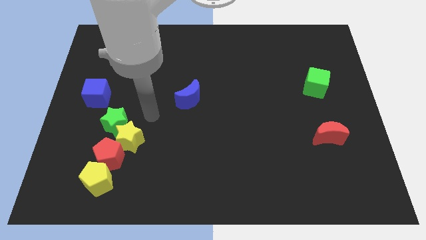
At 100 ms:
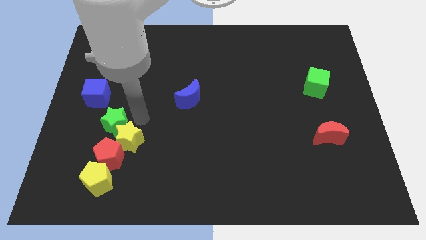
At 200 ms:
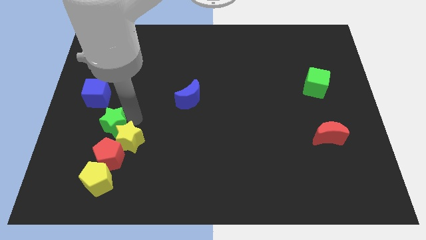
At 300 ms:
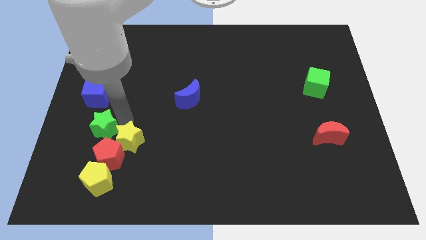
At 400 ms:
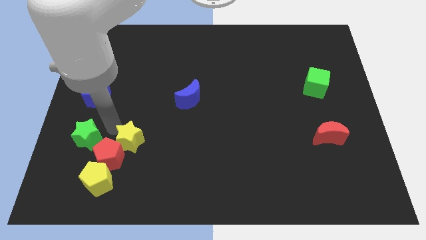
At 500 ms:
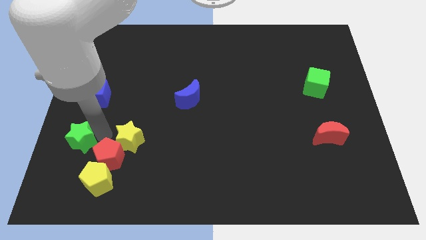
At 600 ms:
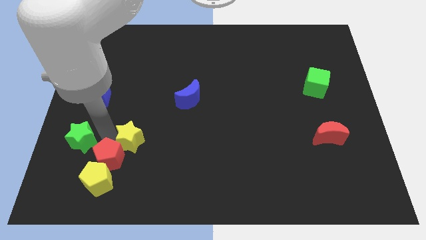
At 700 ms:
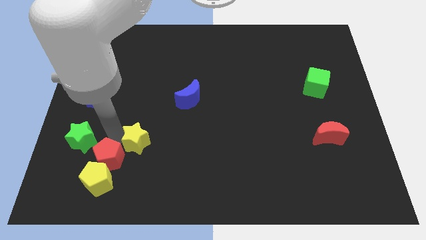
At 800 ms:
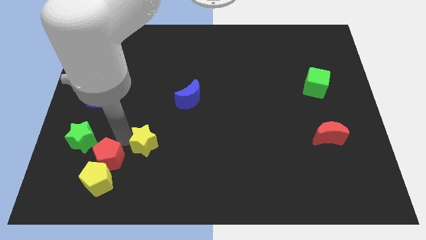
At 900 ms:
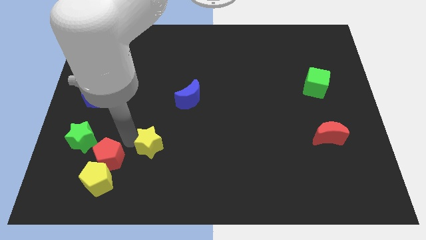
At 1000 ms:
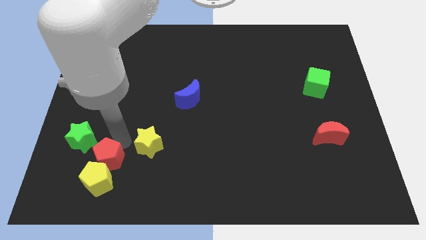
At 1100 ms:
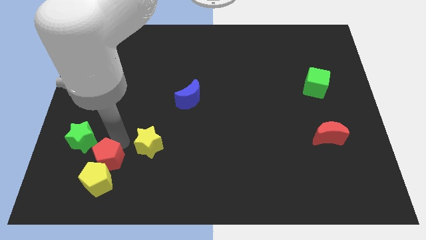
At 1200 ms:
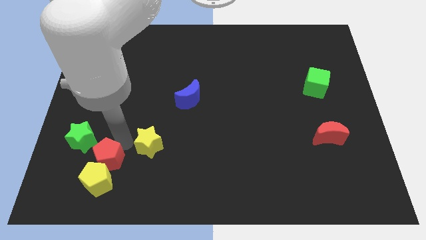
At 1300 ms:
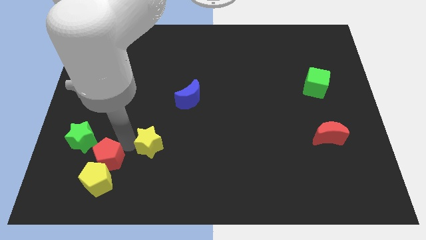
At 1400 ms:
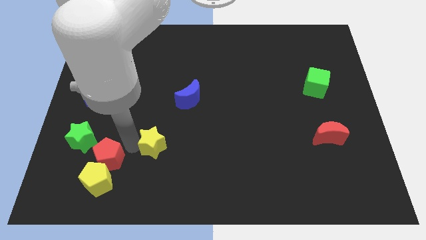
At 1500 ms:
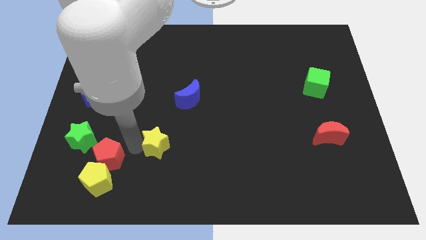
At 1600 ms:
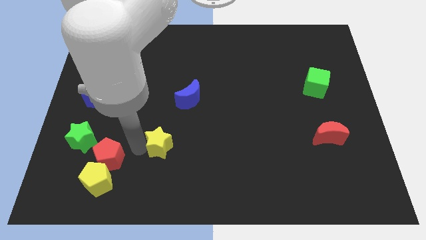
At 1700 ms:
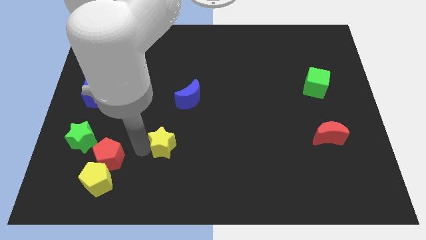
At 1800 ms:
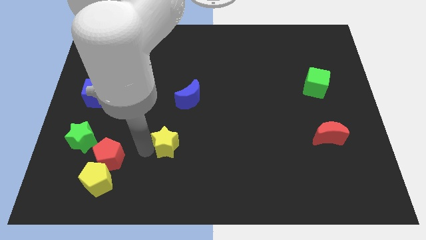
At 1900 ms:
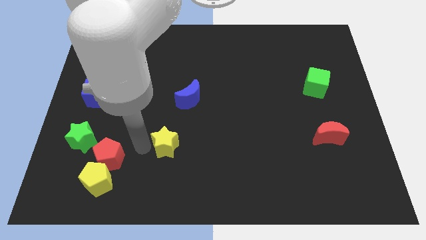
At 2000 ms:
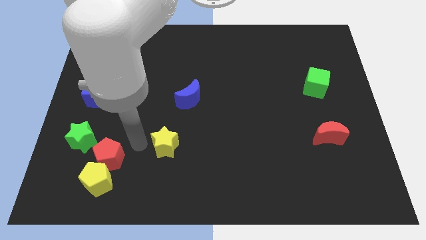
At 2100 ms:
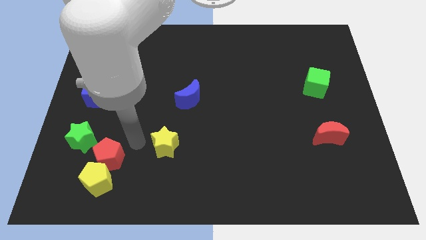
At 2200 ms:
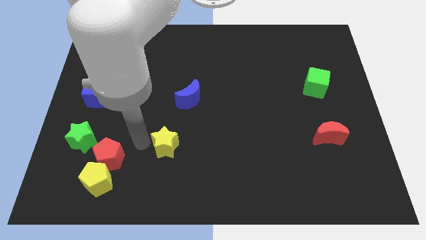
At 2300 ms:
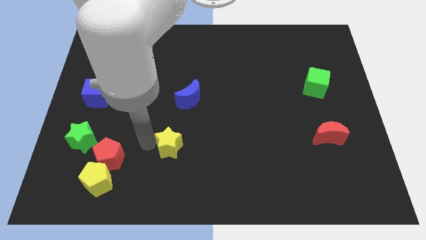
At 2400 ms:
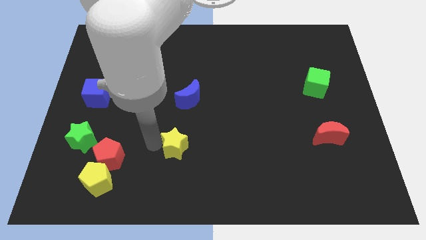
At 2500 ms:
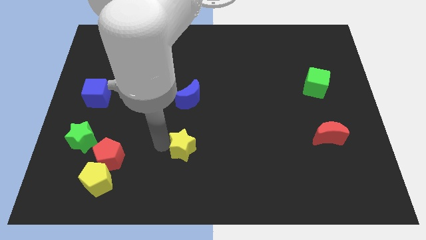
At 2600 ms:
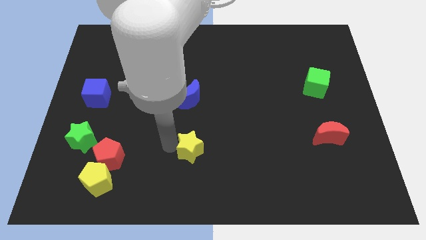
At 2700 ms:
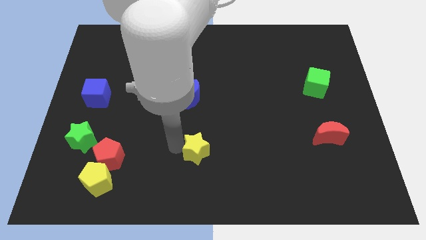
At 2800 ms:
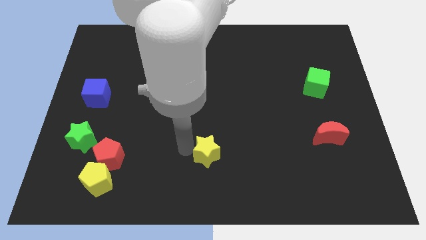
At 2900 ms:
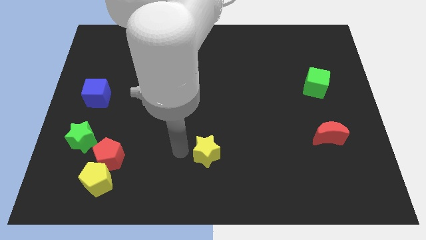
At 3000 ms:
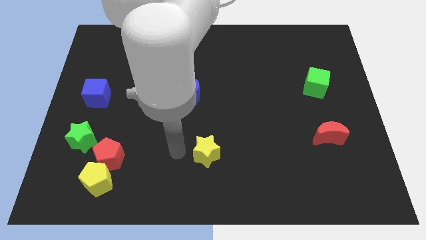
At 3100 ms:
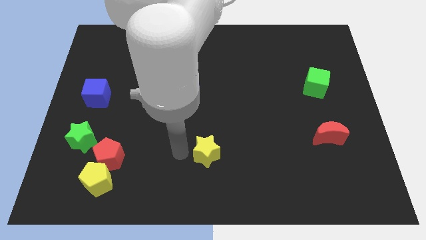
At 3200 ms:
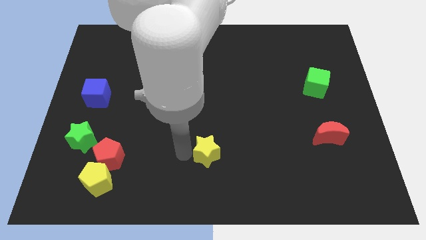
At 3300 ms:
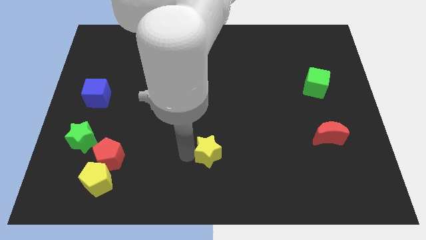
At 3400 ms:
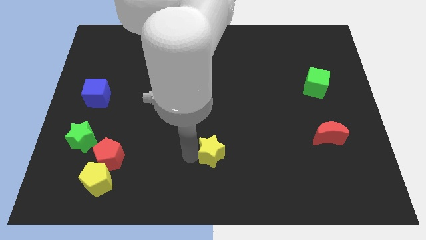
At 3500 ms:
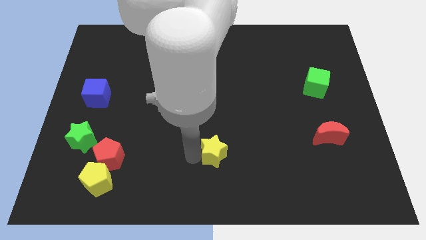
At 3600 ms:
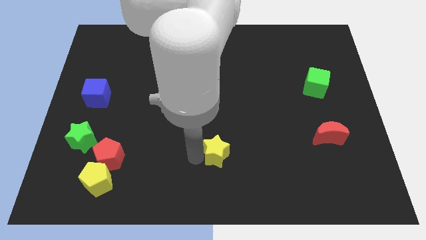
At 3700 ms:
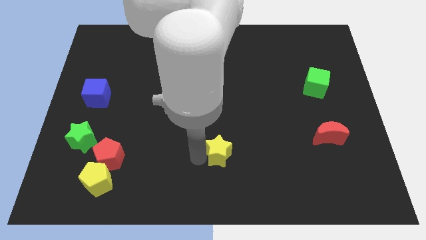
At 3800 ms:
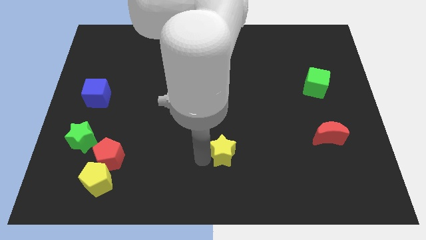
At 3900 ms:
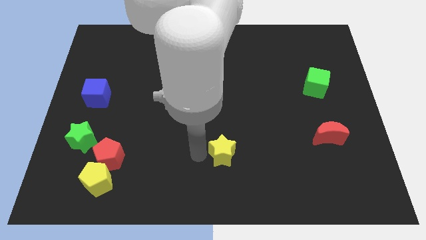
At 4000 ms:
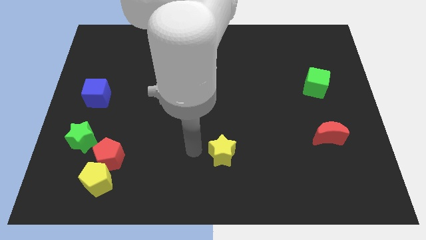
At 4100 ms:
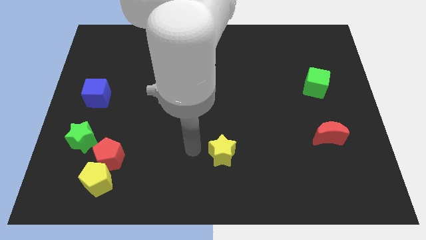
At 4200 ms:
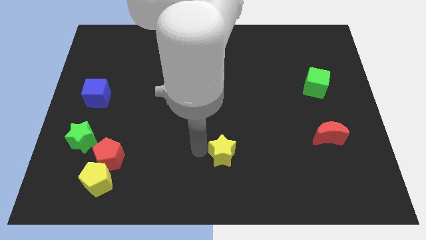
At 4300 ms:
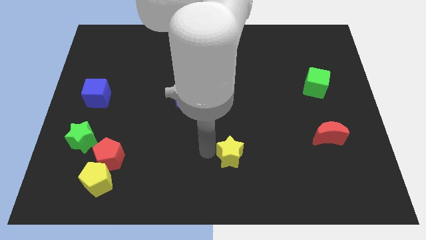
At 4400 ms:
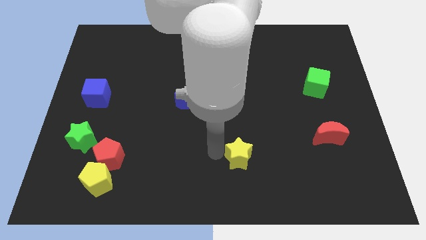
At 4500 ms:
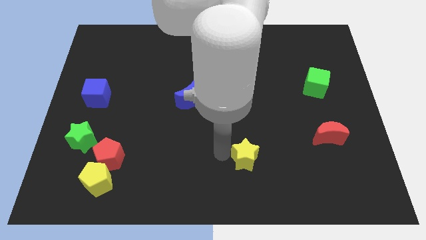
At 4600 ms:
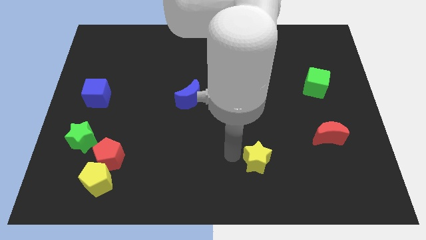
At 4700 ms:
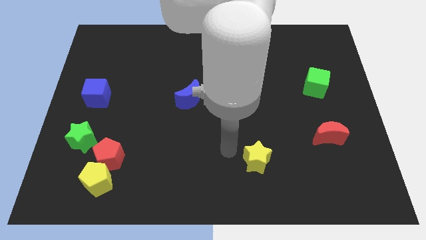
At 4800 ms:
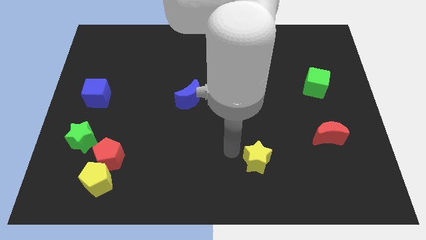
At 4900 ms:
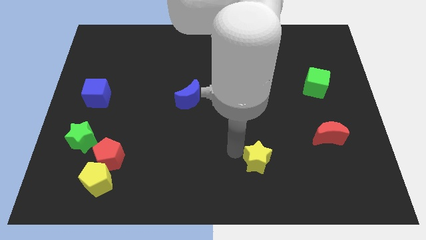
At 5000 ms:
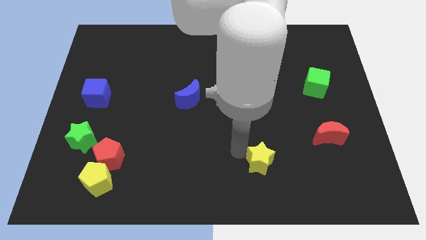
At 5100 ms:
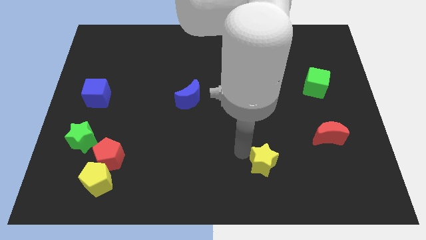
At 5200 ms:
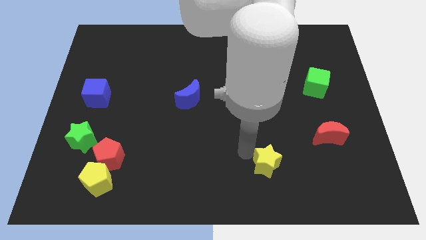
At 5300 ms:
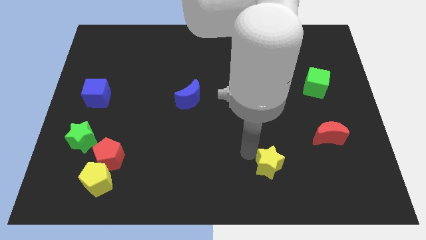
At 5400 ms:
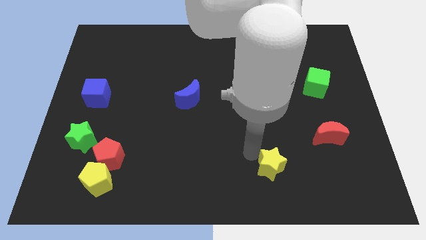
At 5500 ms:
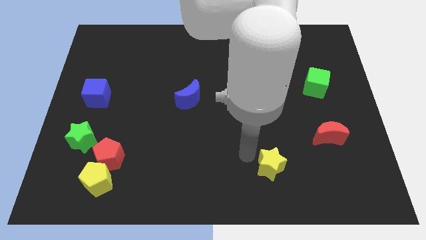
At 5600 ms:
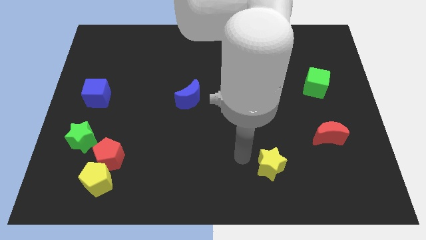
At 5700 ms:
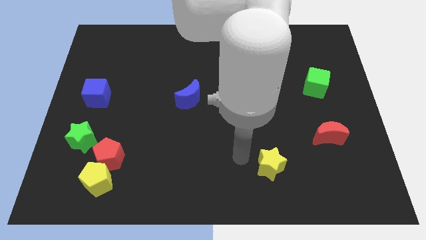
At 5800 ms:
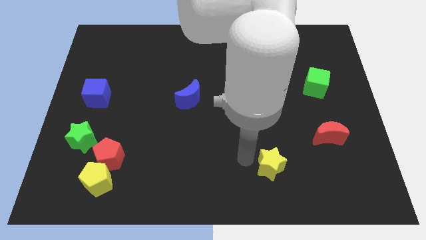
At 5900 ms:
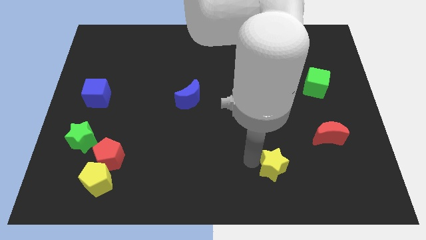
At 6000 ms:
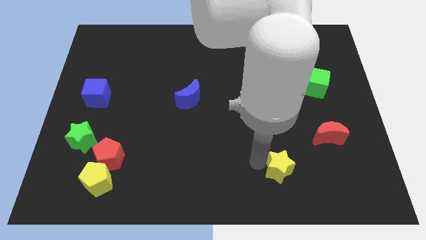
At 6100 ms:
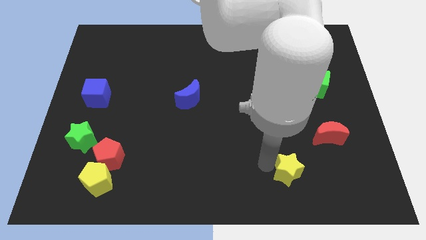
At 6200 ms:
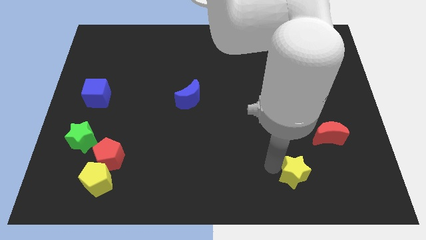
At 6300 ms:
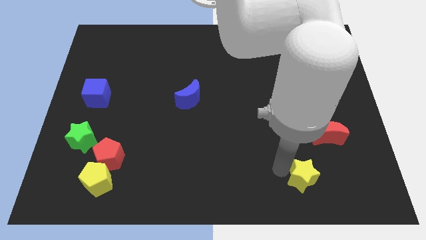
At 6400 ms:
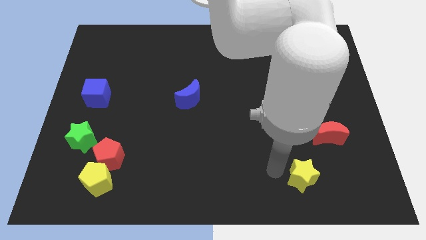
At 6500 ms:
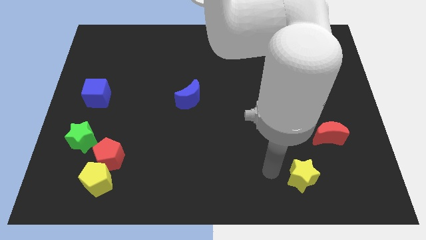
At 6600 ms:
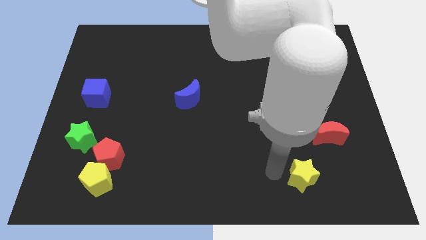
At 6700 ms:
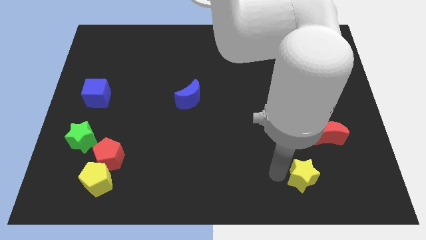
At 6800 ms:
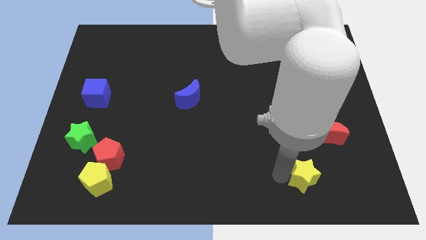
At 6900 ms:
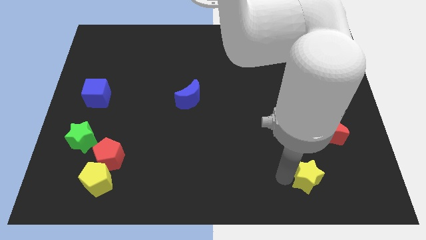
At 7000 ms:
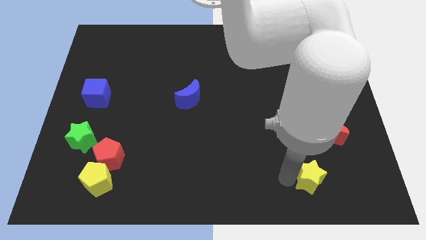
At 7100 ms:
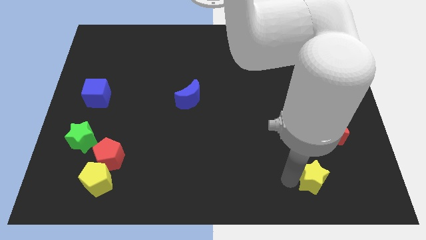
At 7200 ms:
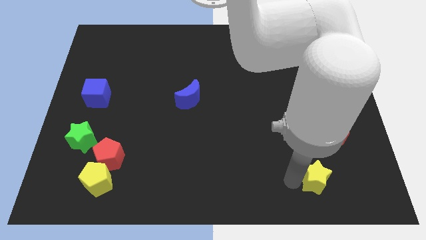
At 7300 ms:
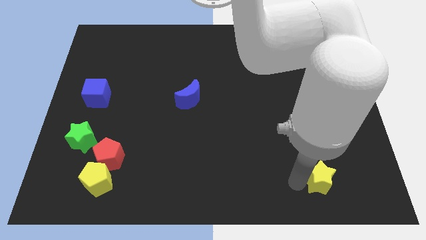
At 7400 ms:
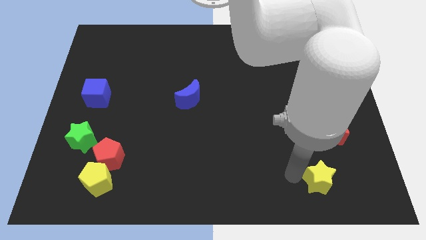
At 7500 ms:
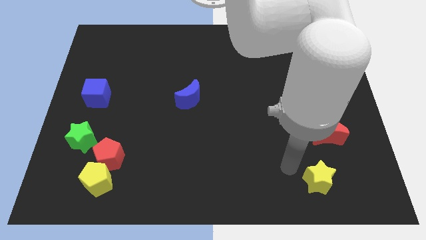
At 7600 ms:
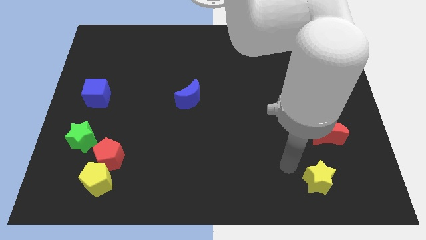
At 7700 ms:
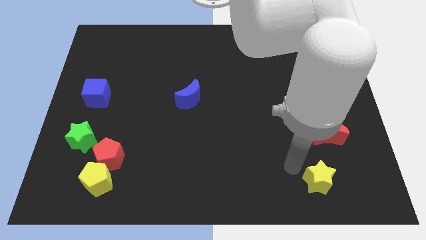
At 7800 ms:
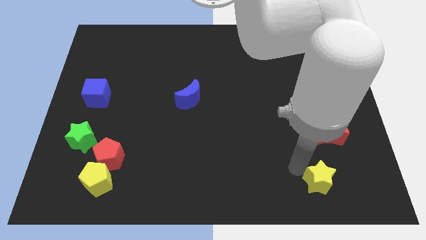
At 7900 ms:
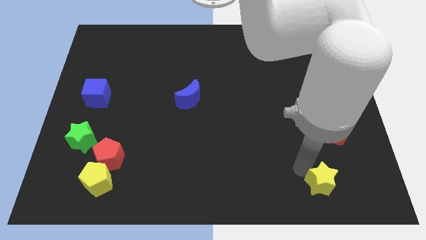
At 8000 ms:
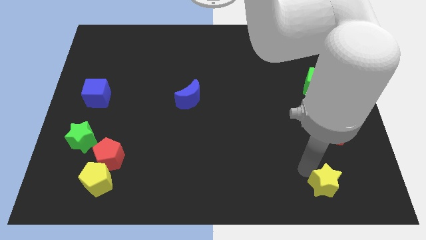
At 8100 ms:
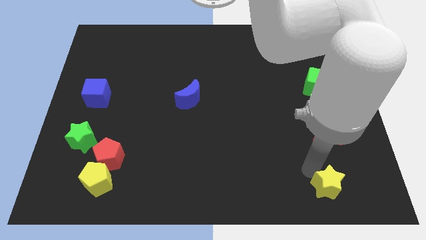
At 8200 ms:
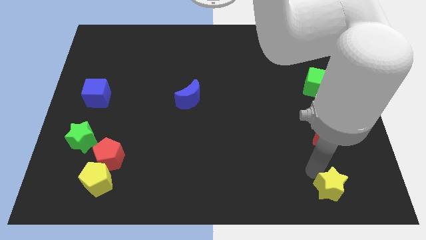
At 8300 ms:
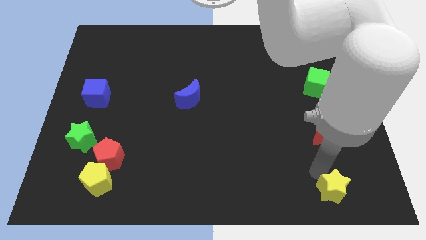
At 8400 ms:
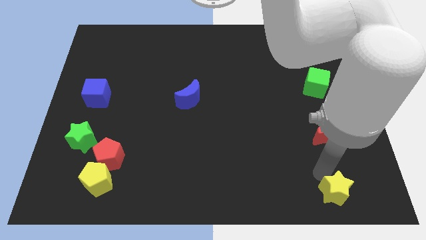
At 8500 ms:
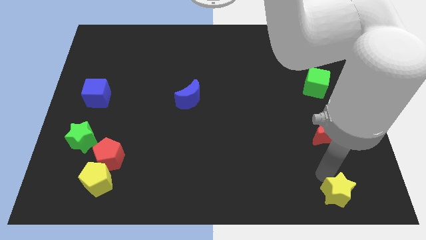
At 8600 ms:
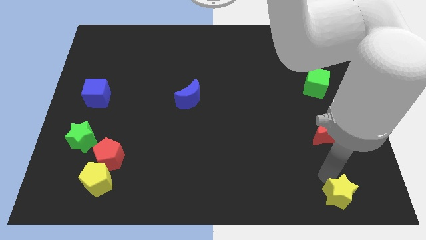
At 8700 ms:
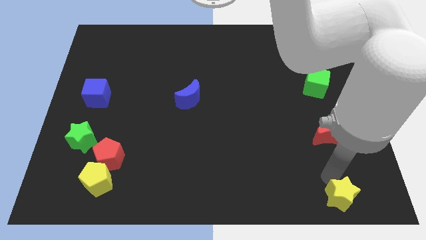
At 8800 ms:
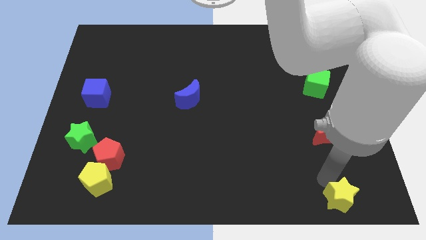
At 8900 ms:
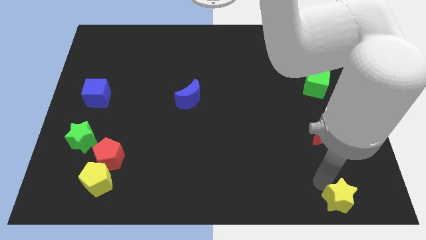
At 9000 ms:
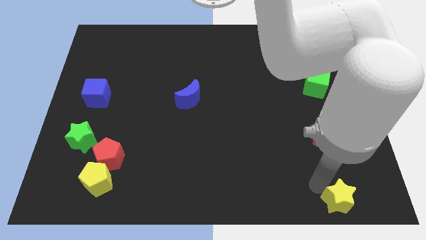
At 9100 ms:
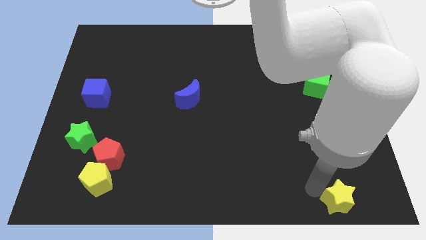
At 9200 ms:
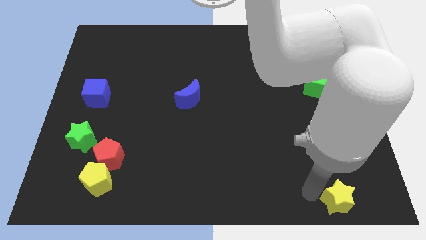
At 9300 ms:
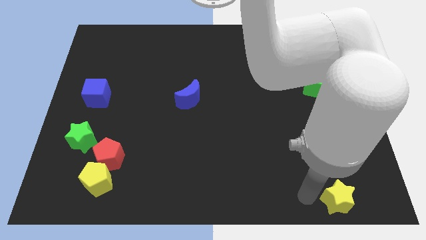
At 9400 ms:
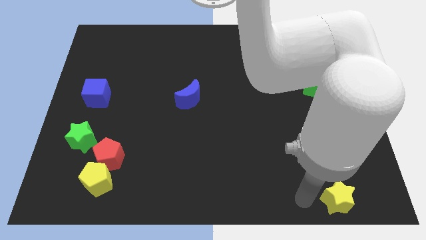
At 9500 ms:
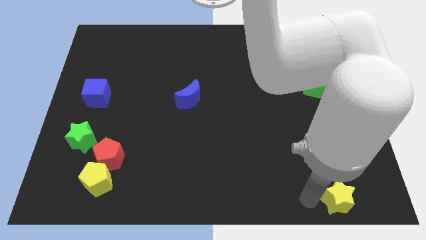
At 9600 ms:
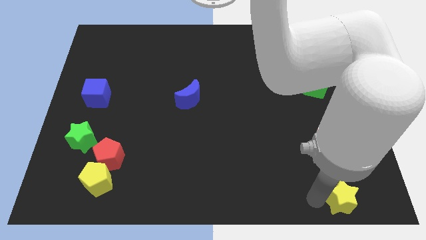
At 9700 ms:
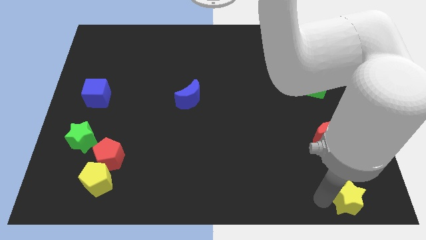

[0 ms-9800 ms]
push the yellow star to the lower right corner
